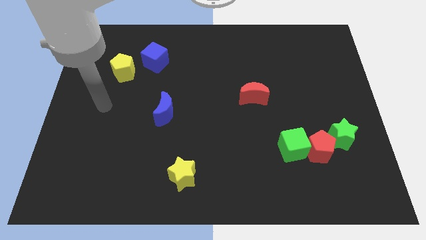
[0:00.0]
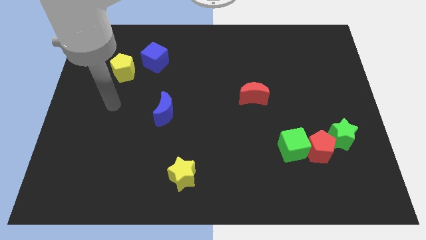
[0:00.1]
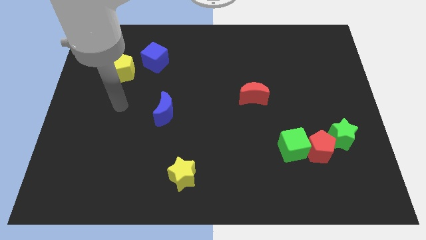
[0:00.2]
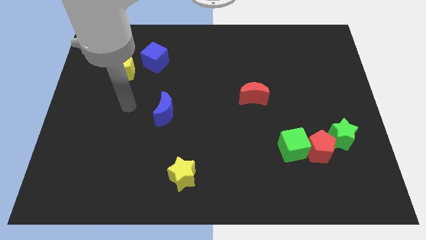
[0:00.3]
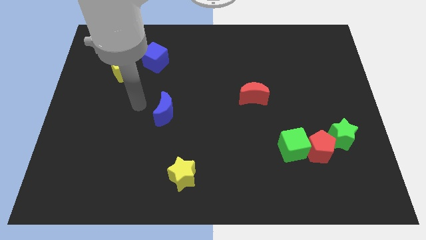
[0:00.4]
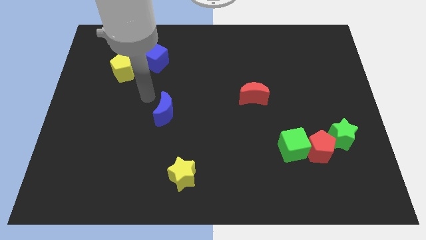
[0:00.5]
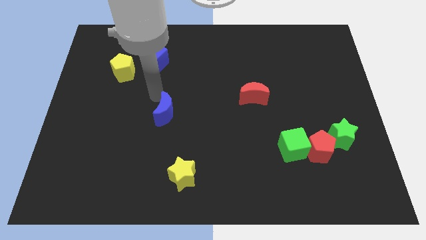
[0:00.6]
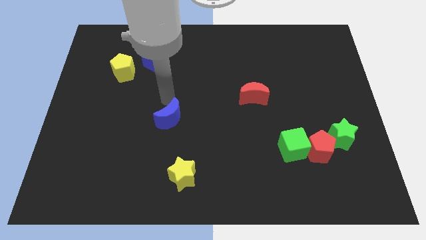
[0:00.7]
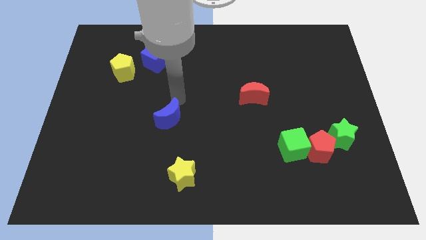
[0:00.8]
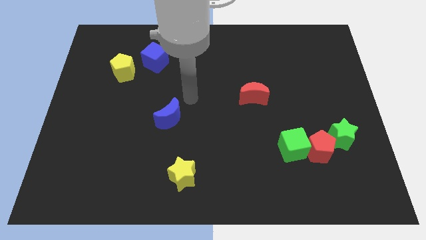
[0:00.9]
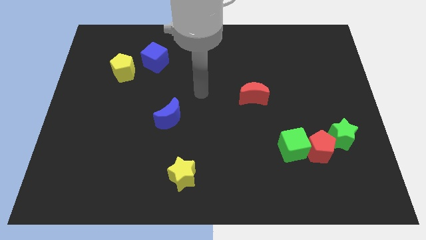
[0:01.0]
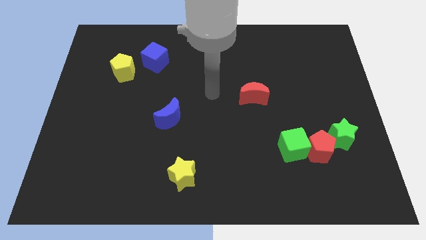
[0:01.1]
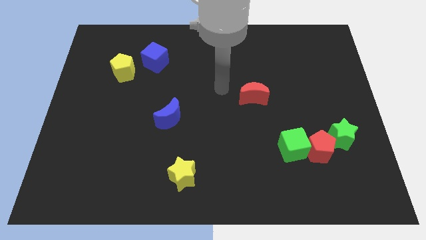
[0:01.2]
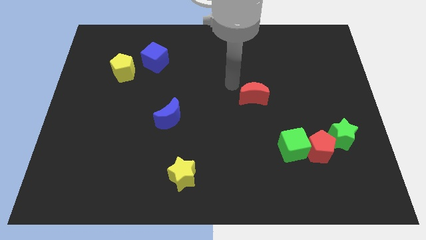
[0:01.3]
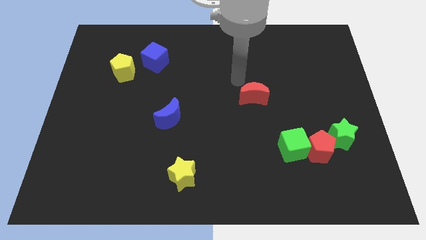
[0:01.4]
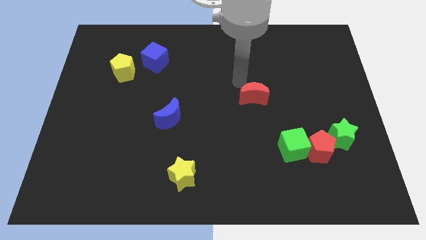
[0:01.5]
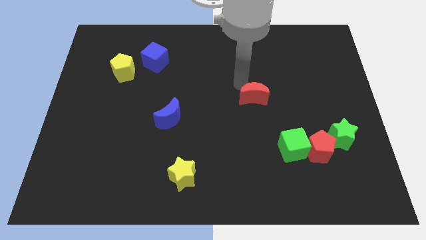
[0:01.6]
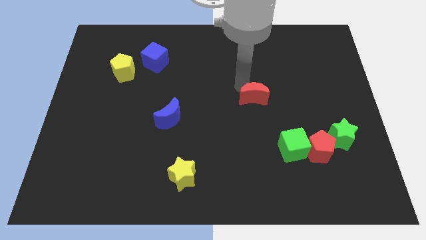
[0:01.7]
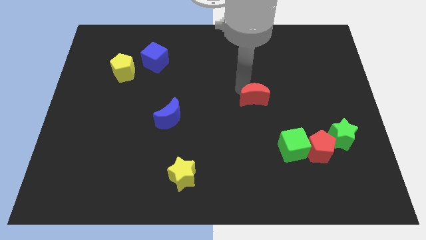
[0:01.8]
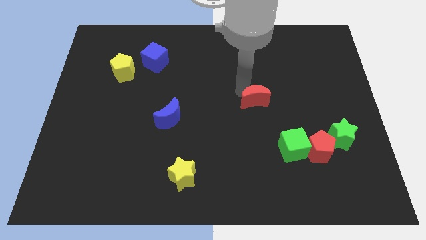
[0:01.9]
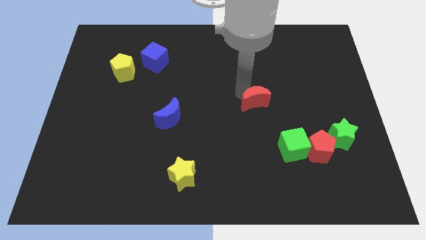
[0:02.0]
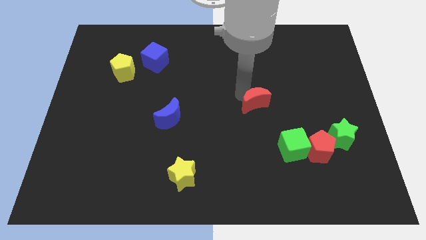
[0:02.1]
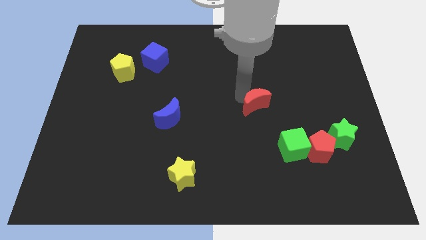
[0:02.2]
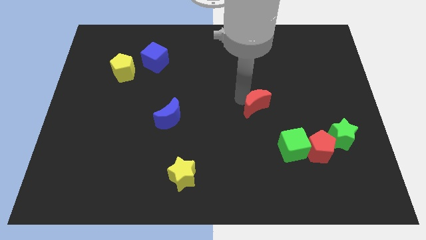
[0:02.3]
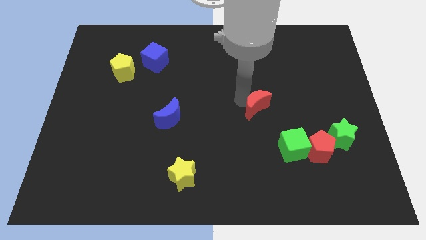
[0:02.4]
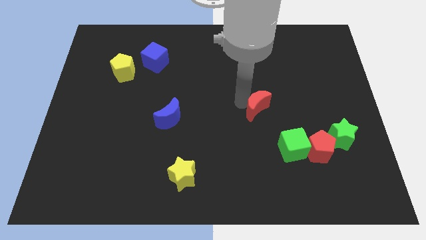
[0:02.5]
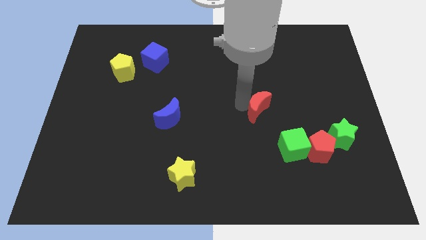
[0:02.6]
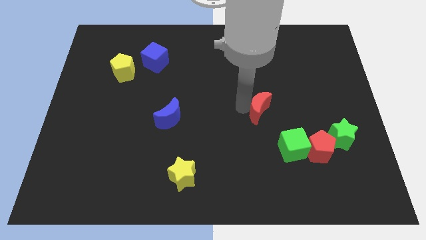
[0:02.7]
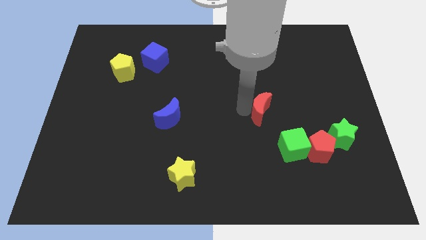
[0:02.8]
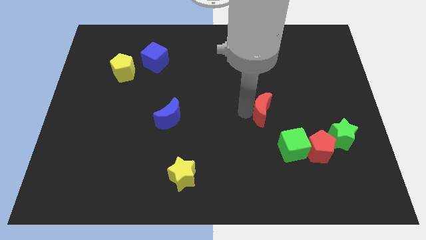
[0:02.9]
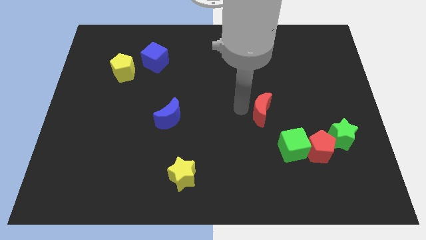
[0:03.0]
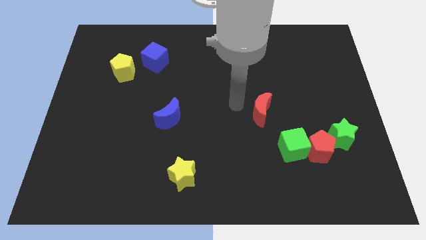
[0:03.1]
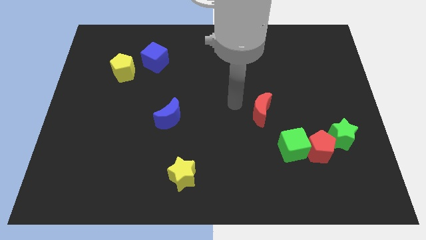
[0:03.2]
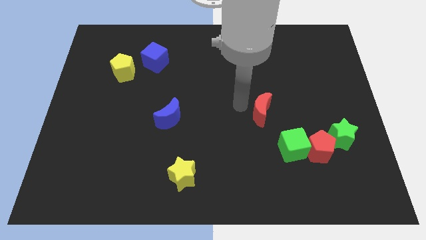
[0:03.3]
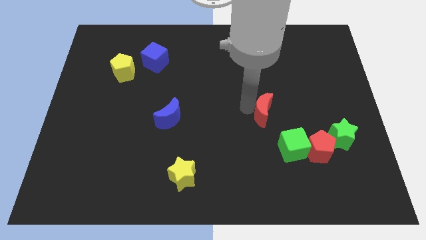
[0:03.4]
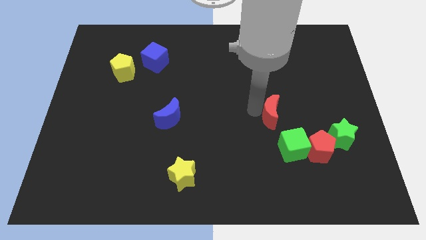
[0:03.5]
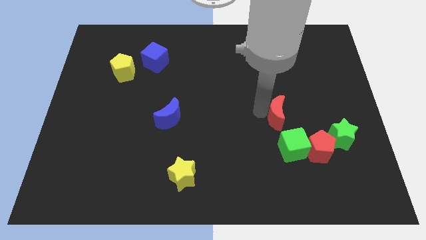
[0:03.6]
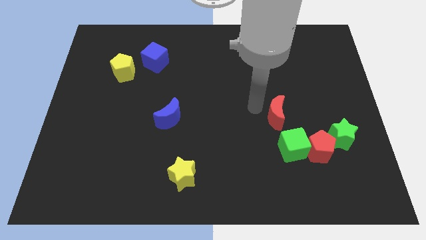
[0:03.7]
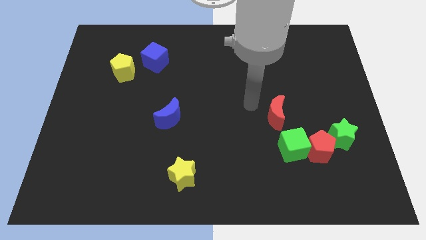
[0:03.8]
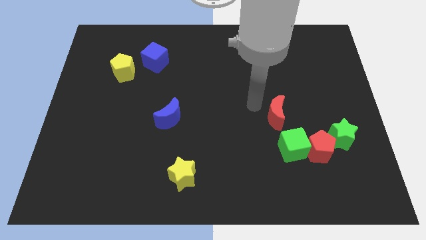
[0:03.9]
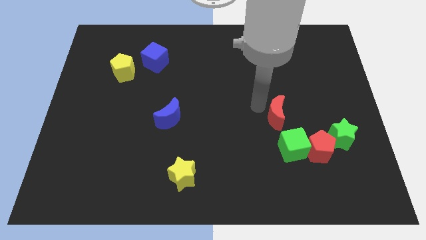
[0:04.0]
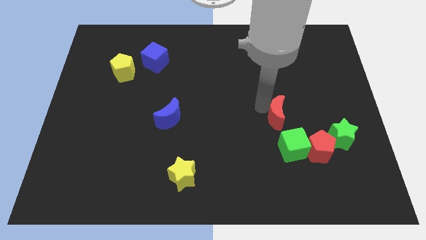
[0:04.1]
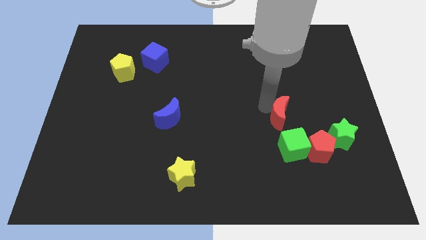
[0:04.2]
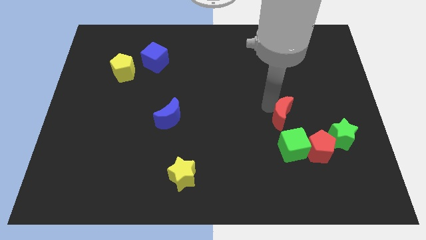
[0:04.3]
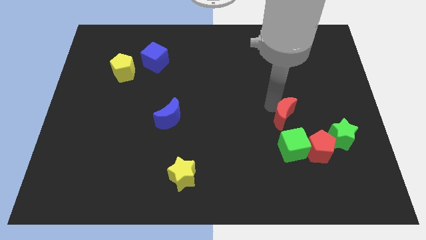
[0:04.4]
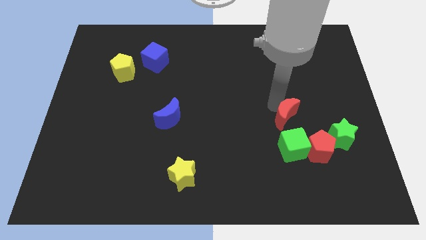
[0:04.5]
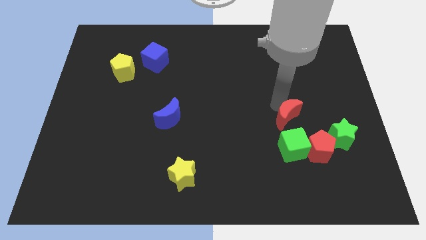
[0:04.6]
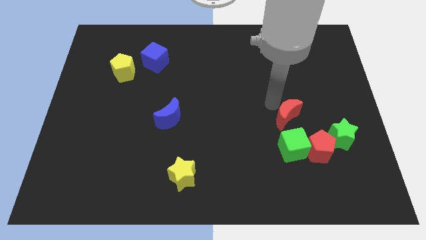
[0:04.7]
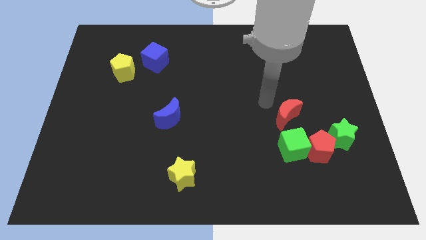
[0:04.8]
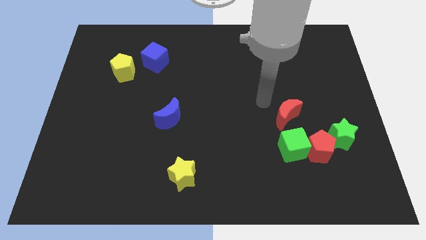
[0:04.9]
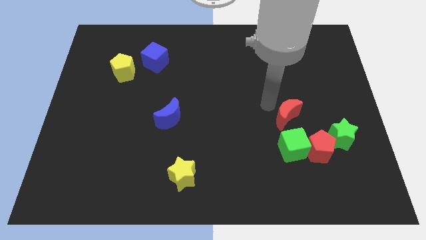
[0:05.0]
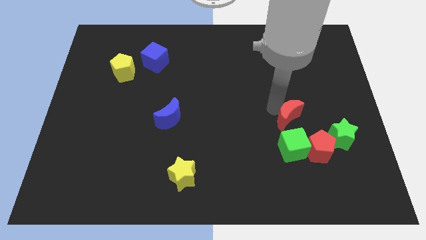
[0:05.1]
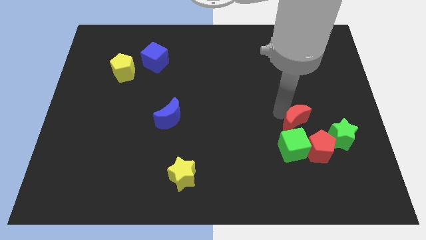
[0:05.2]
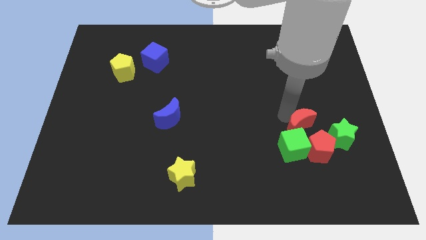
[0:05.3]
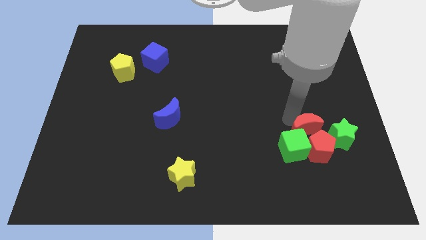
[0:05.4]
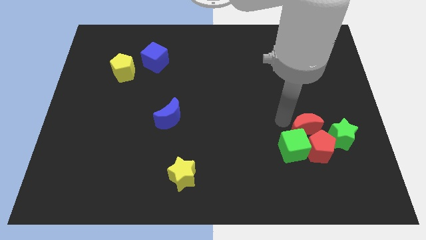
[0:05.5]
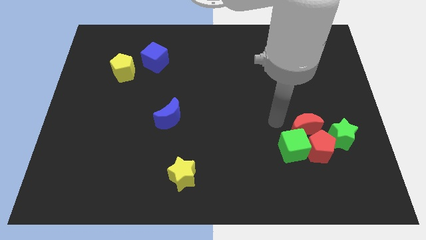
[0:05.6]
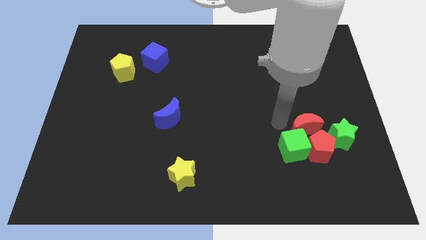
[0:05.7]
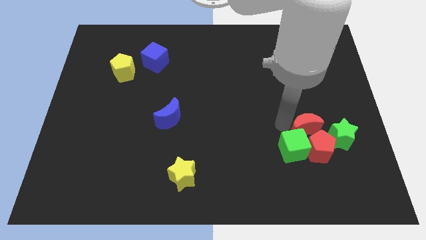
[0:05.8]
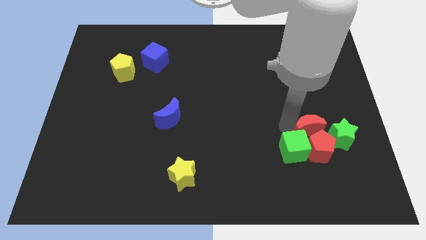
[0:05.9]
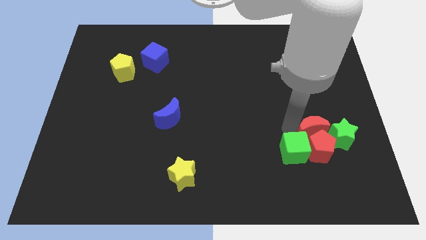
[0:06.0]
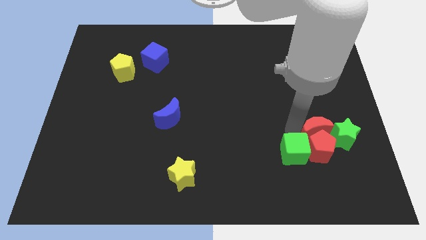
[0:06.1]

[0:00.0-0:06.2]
slide the red moon close to the green star

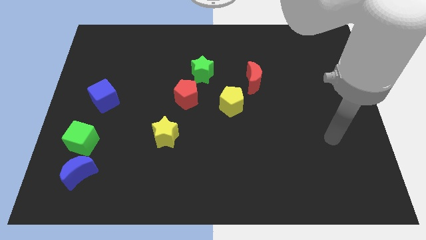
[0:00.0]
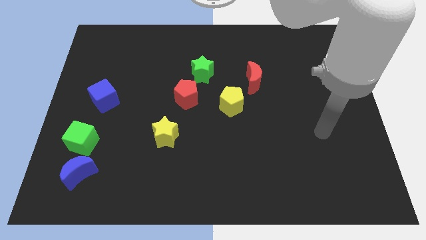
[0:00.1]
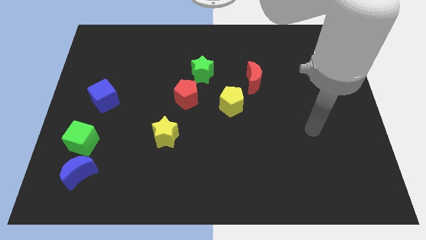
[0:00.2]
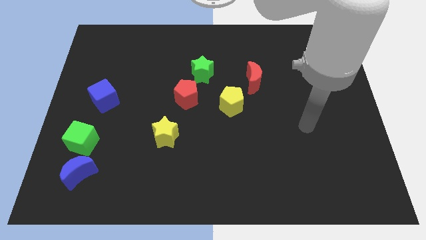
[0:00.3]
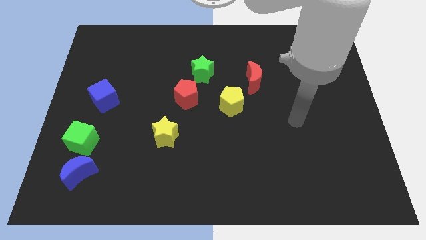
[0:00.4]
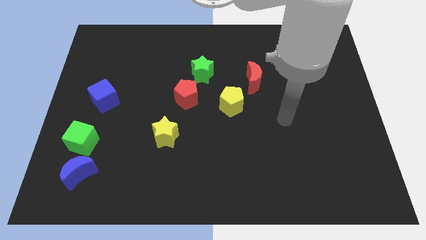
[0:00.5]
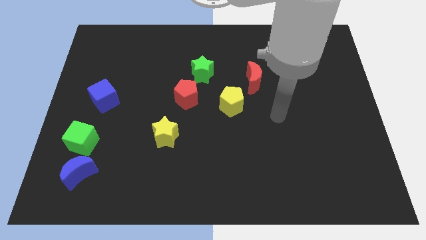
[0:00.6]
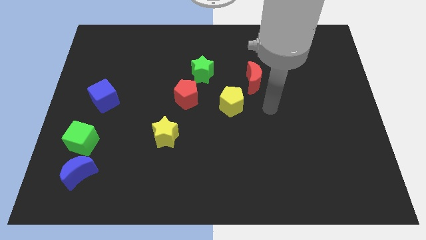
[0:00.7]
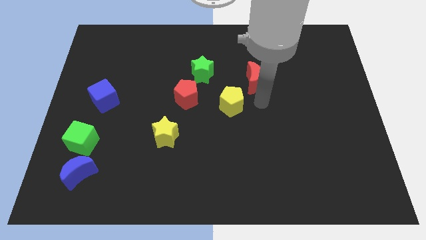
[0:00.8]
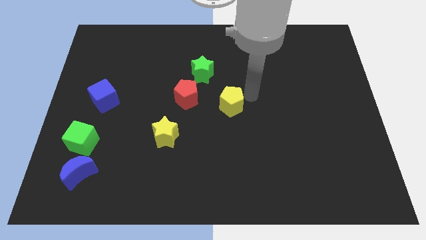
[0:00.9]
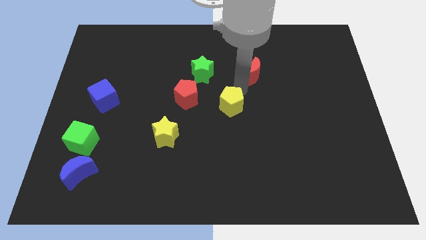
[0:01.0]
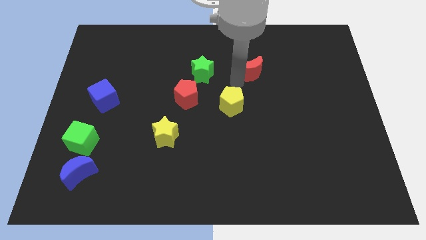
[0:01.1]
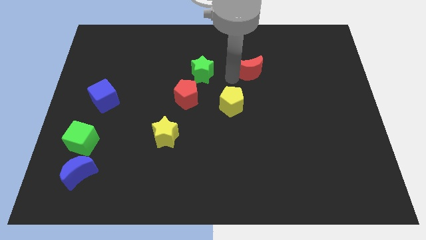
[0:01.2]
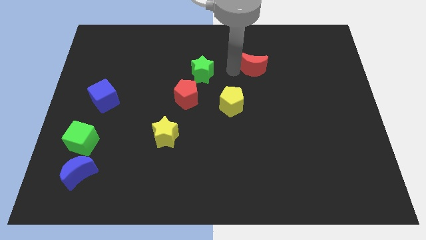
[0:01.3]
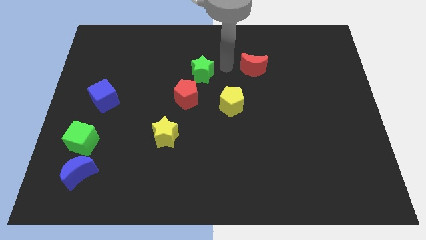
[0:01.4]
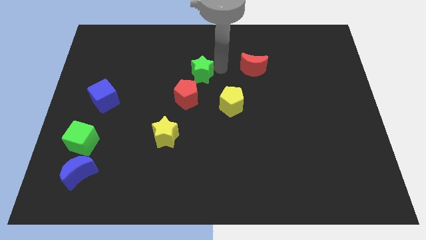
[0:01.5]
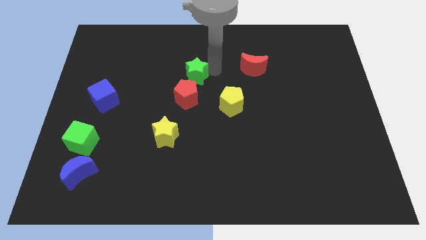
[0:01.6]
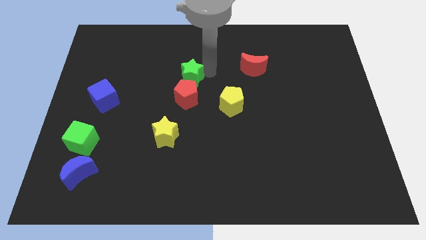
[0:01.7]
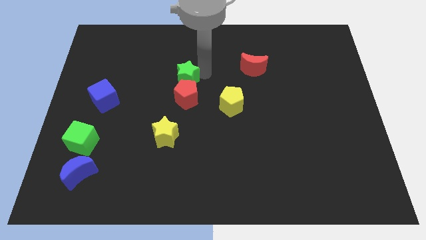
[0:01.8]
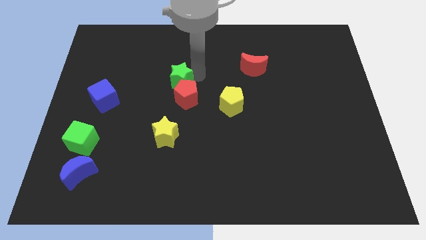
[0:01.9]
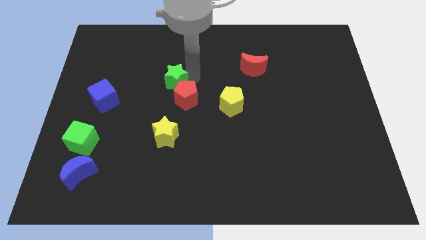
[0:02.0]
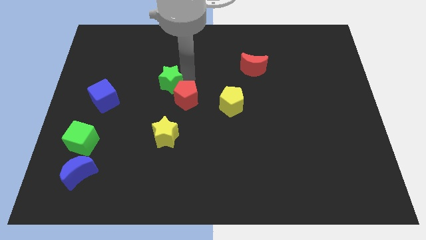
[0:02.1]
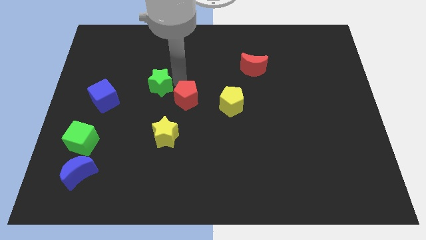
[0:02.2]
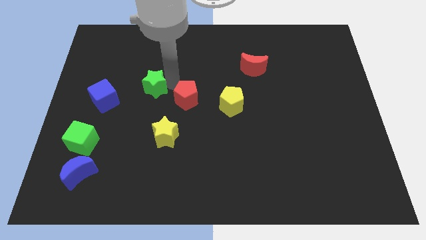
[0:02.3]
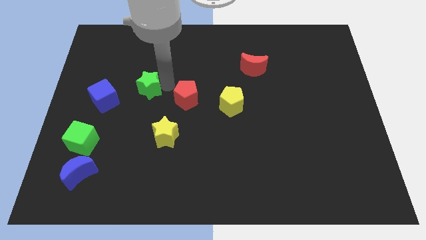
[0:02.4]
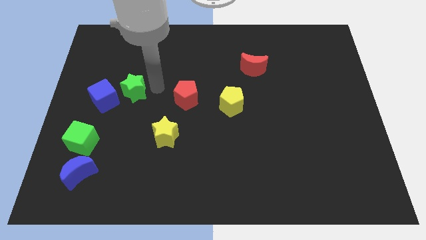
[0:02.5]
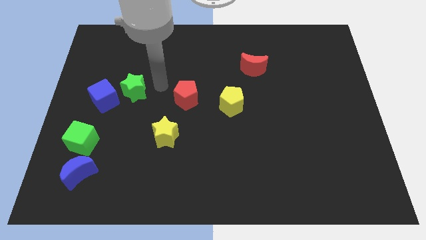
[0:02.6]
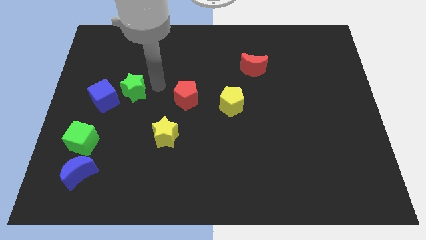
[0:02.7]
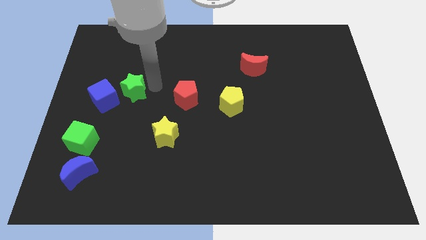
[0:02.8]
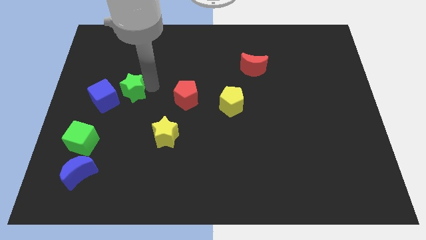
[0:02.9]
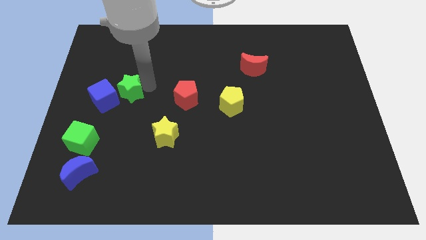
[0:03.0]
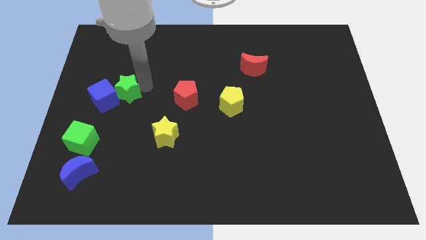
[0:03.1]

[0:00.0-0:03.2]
put the green star to the blue cube
